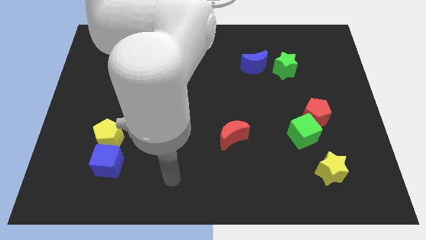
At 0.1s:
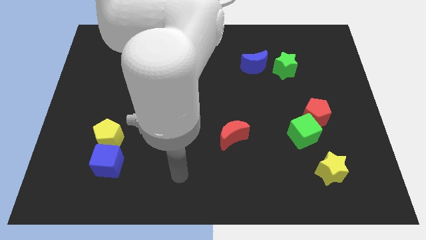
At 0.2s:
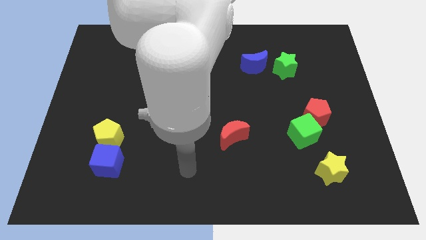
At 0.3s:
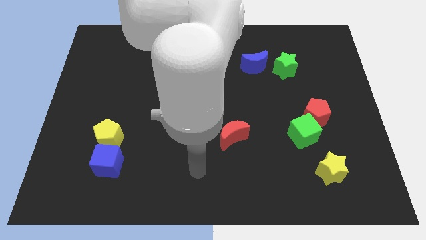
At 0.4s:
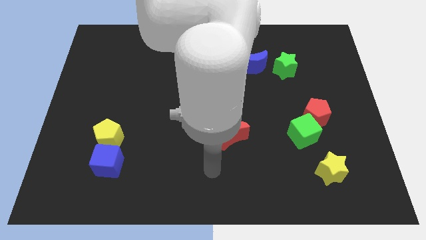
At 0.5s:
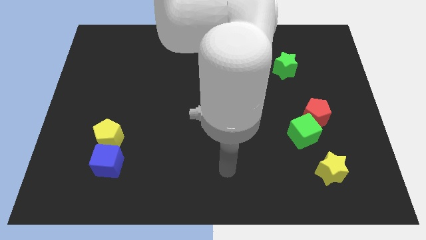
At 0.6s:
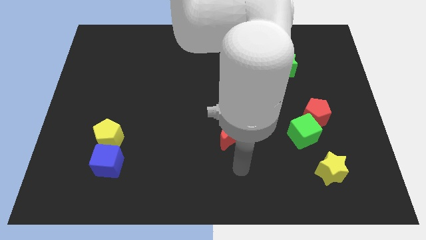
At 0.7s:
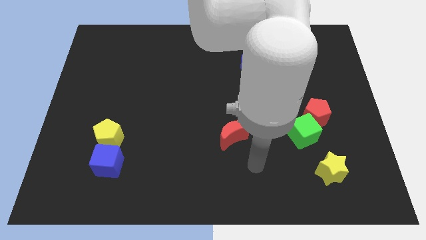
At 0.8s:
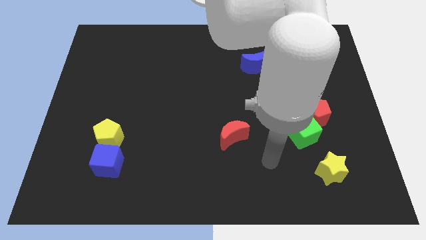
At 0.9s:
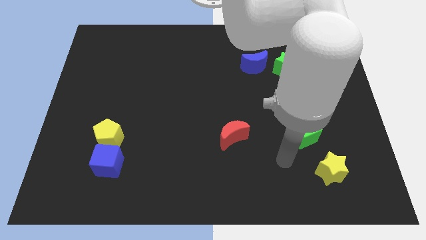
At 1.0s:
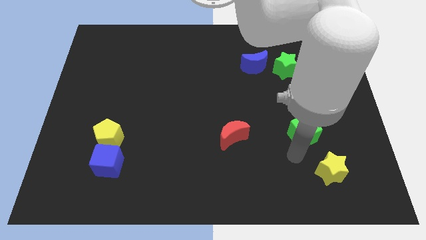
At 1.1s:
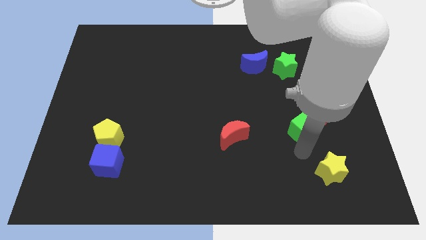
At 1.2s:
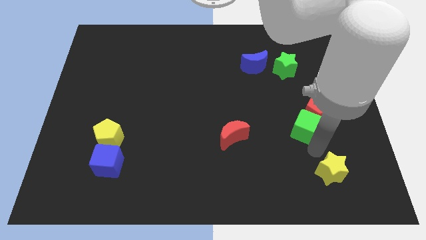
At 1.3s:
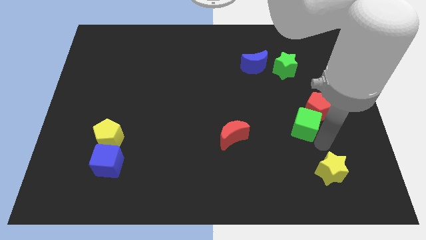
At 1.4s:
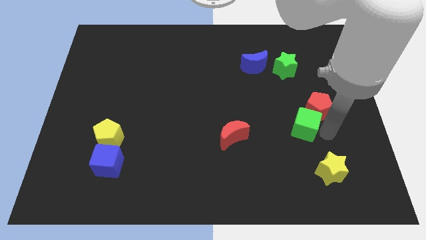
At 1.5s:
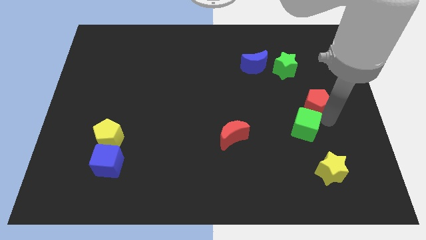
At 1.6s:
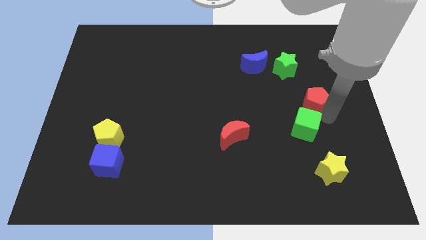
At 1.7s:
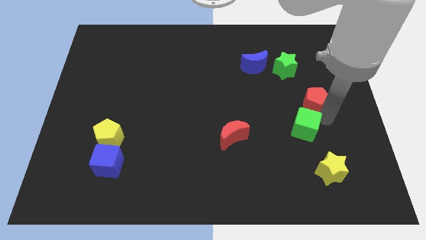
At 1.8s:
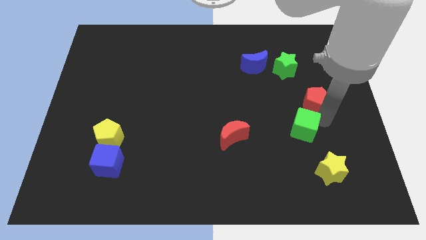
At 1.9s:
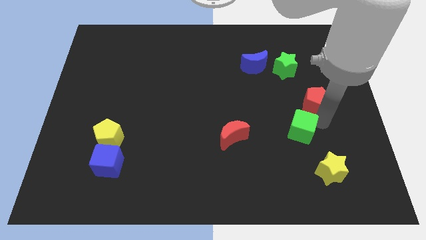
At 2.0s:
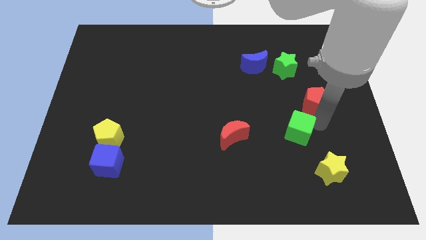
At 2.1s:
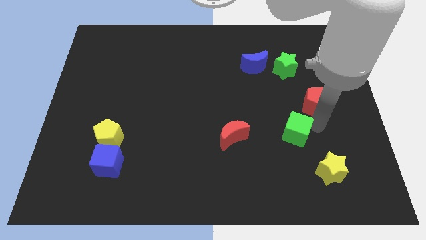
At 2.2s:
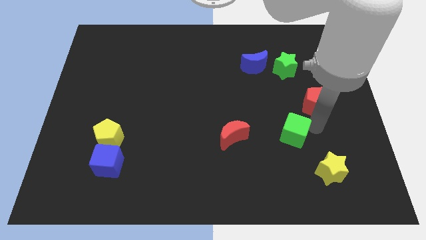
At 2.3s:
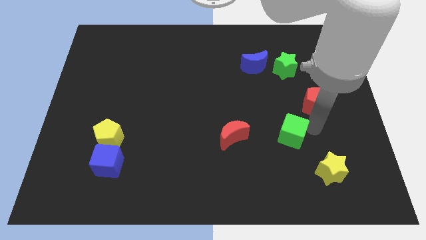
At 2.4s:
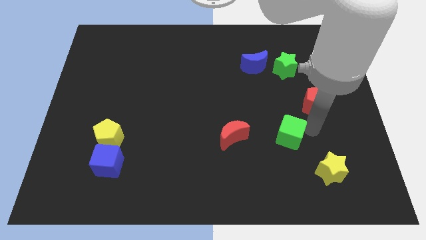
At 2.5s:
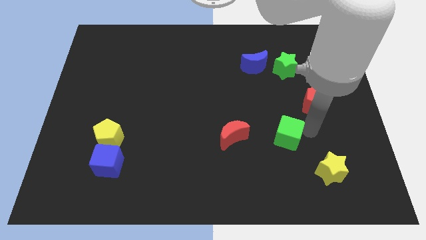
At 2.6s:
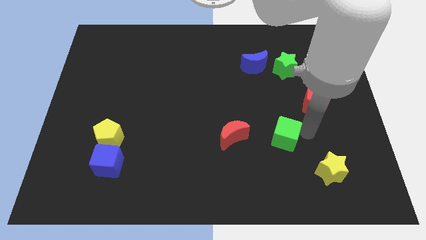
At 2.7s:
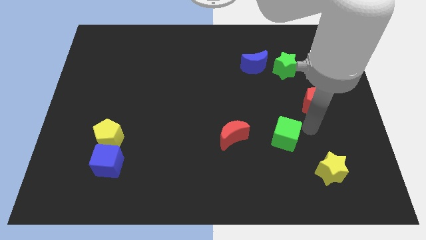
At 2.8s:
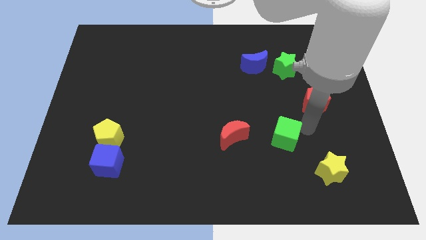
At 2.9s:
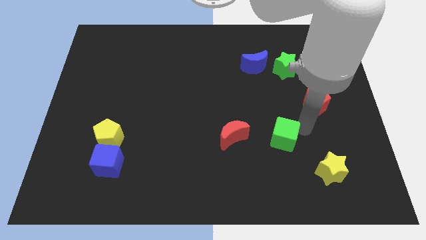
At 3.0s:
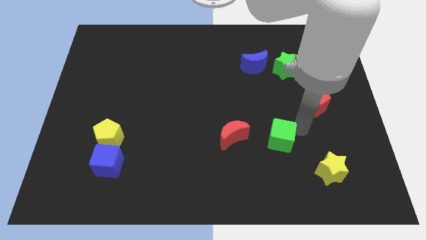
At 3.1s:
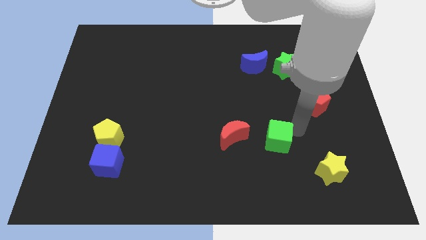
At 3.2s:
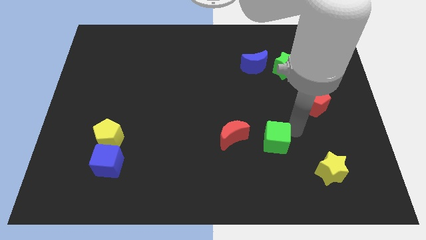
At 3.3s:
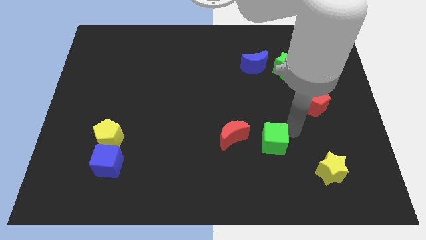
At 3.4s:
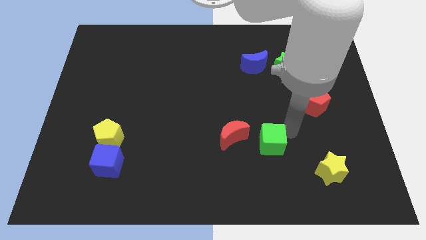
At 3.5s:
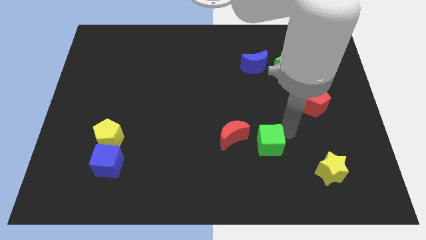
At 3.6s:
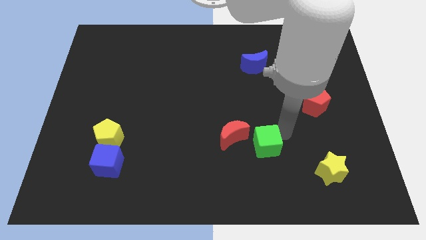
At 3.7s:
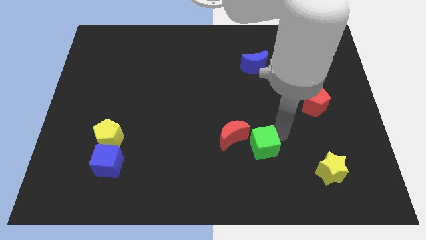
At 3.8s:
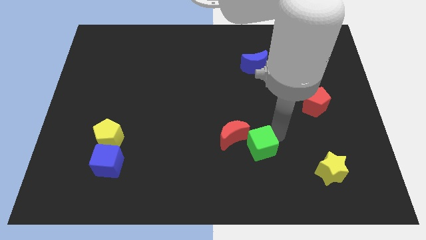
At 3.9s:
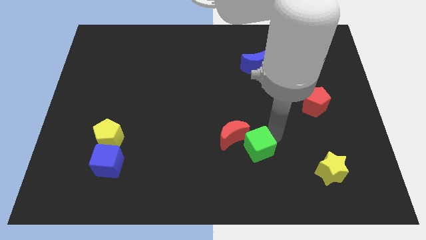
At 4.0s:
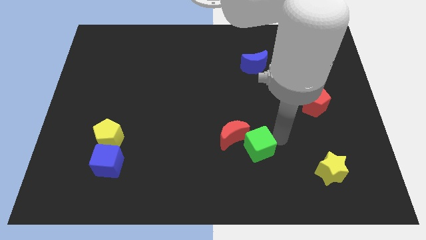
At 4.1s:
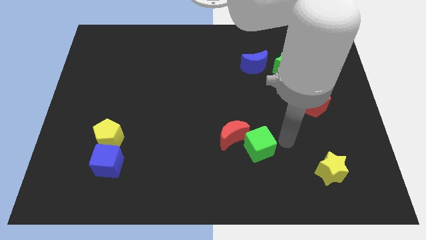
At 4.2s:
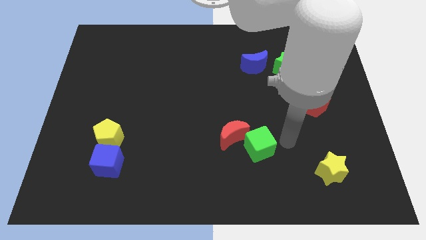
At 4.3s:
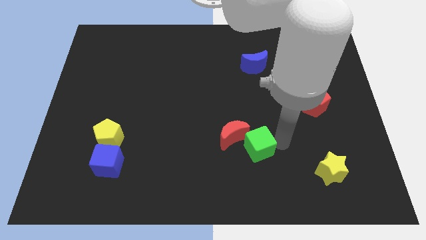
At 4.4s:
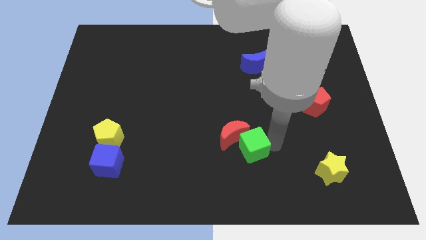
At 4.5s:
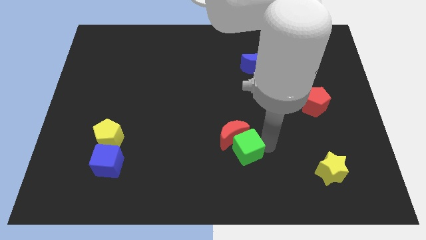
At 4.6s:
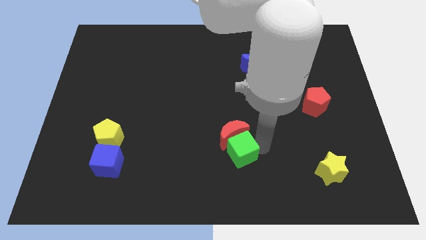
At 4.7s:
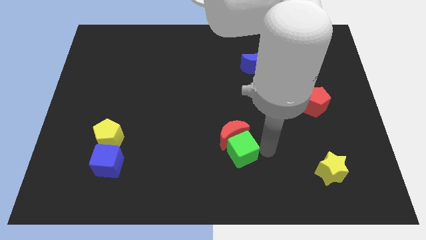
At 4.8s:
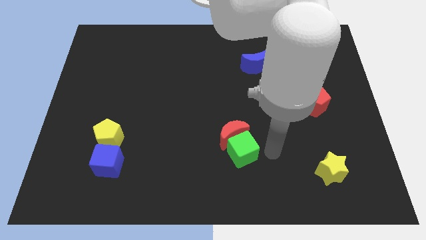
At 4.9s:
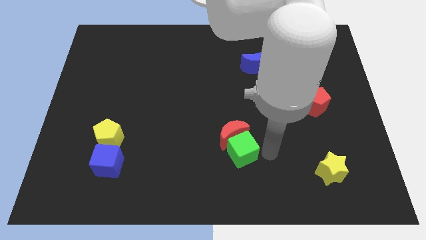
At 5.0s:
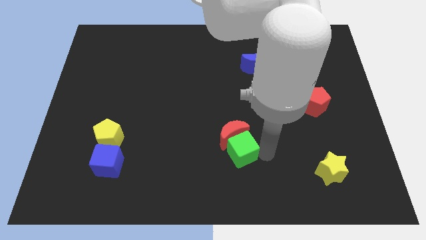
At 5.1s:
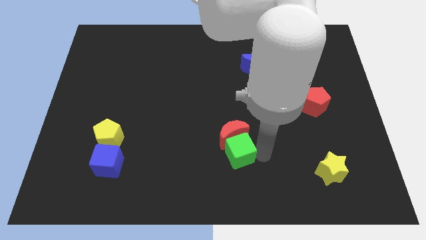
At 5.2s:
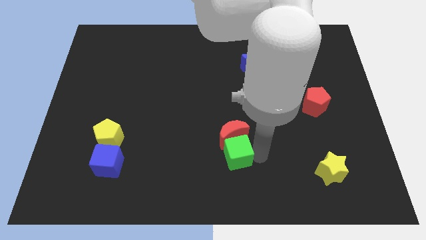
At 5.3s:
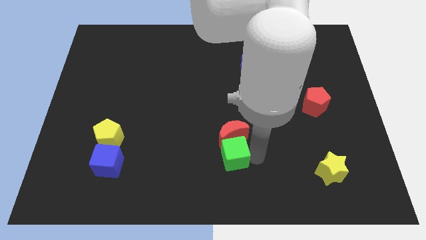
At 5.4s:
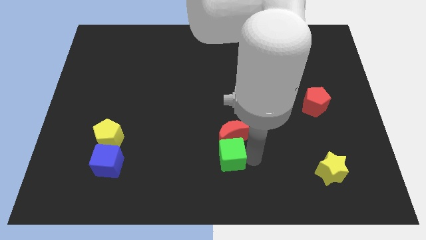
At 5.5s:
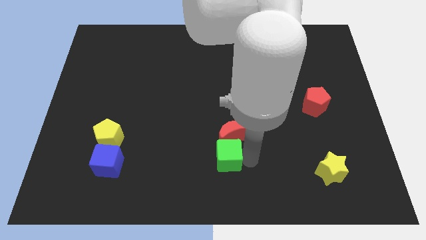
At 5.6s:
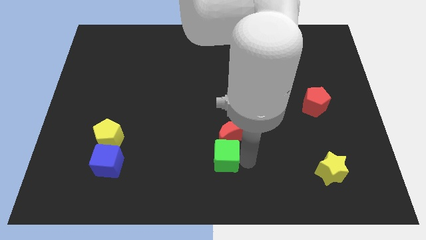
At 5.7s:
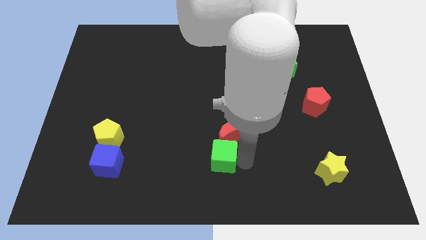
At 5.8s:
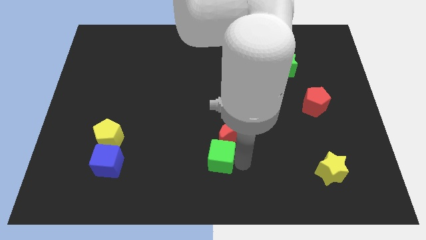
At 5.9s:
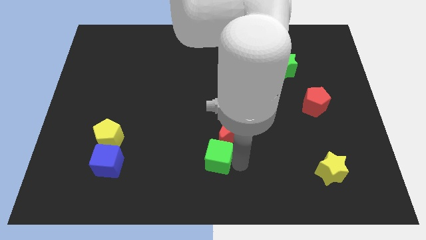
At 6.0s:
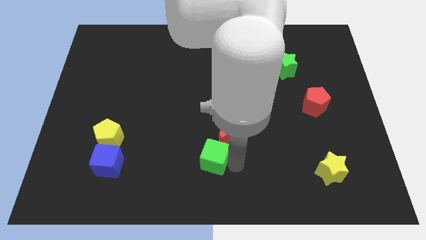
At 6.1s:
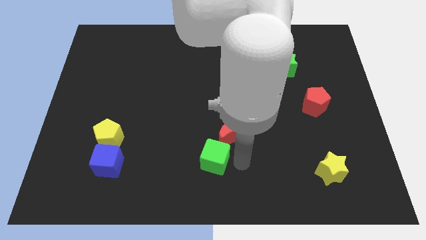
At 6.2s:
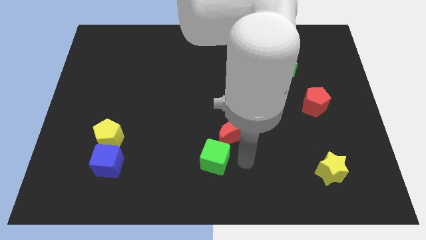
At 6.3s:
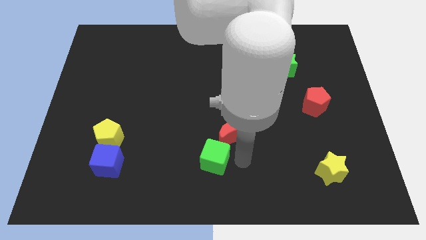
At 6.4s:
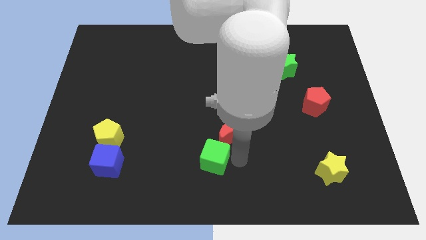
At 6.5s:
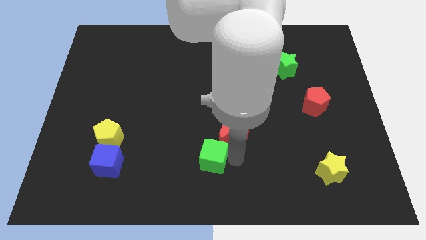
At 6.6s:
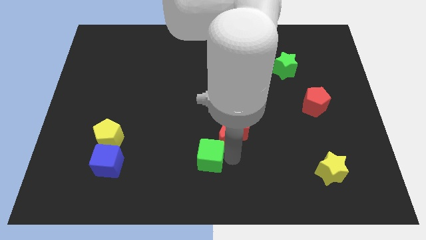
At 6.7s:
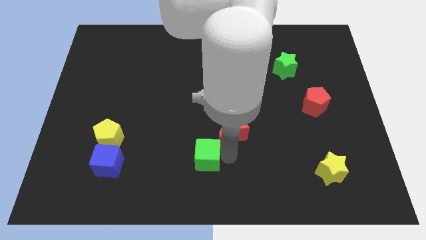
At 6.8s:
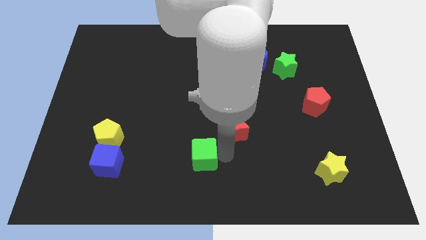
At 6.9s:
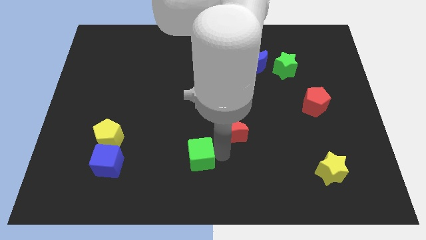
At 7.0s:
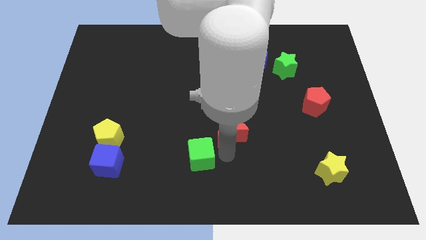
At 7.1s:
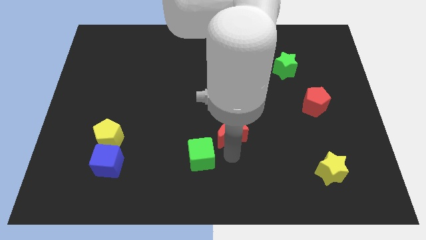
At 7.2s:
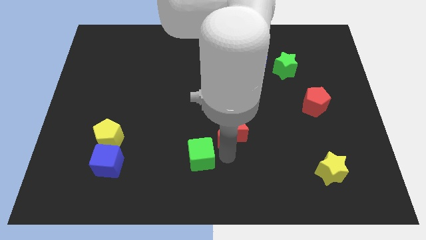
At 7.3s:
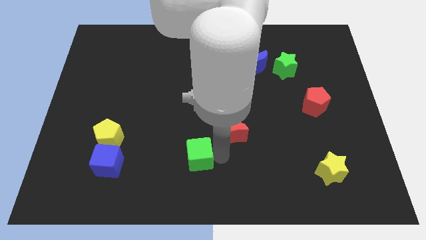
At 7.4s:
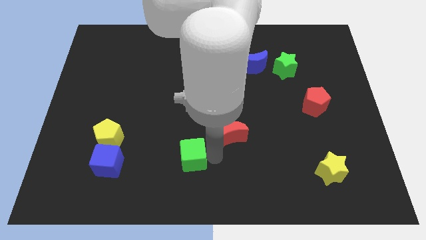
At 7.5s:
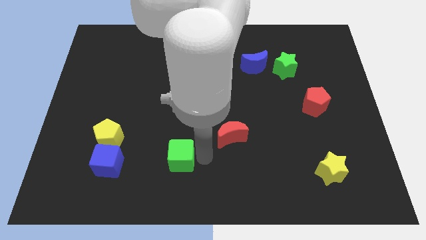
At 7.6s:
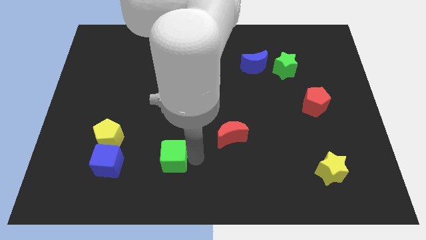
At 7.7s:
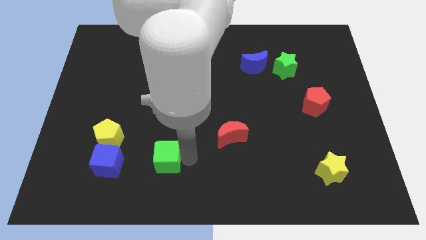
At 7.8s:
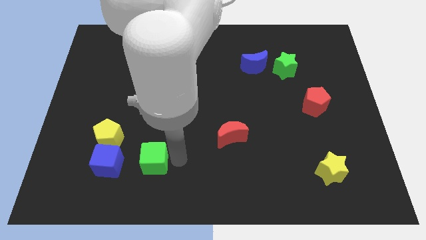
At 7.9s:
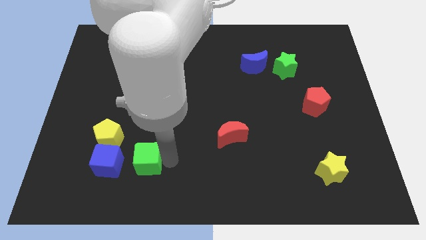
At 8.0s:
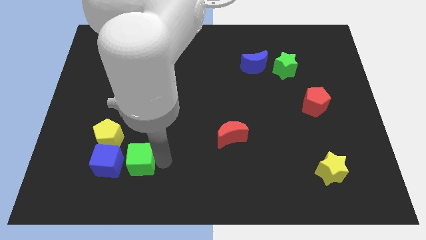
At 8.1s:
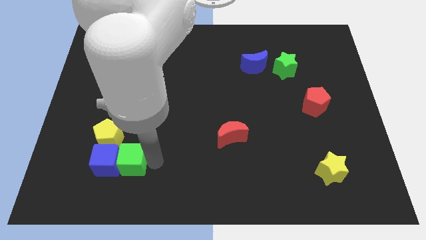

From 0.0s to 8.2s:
slide the green cube to the blue cube
